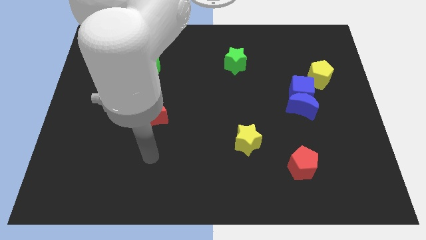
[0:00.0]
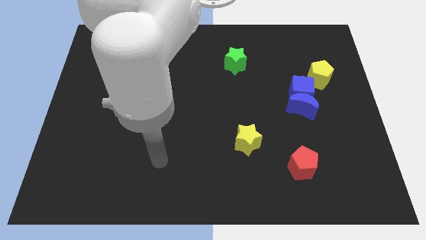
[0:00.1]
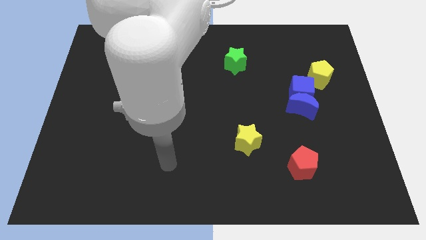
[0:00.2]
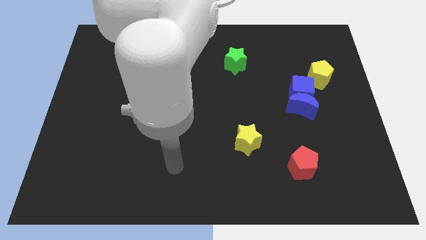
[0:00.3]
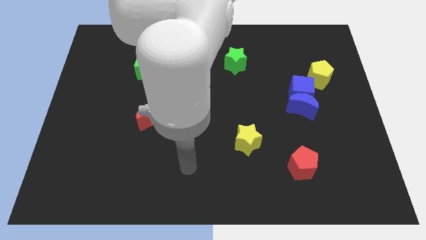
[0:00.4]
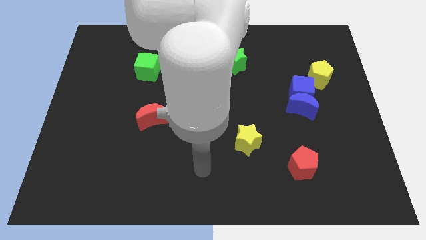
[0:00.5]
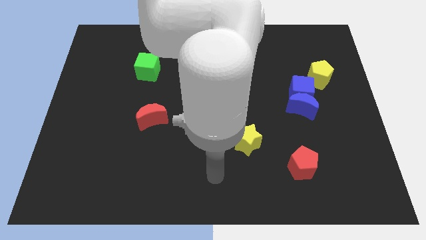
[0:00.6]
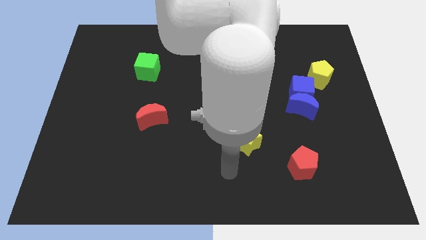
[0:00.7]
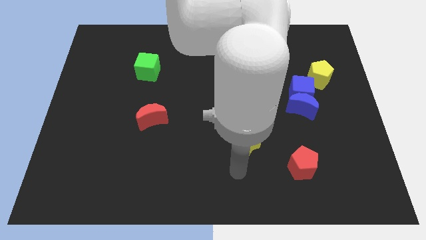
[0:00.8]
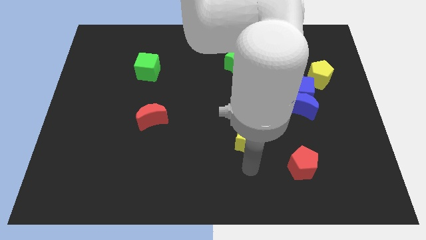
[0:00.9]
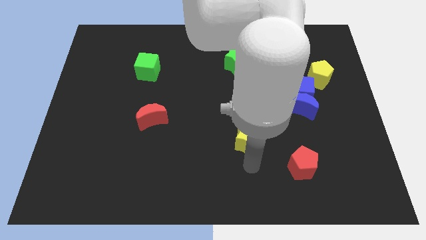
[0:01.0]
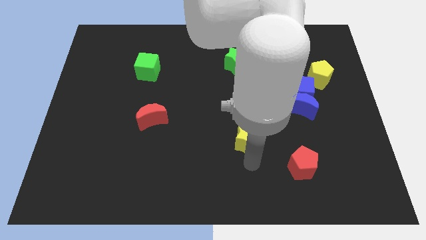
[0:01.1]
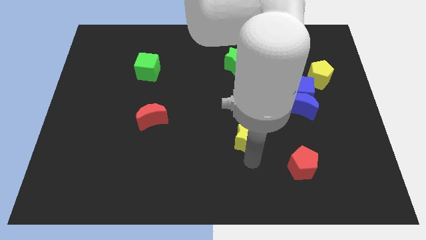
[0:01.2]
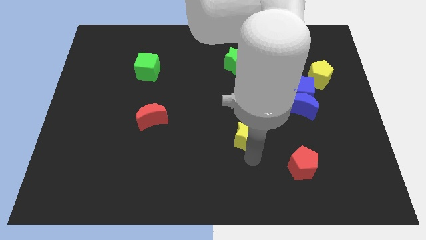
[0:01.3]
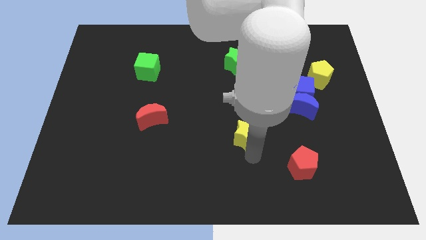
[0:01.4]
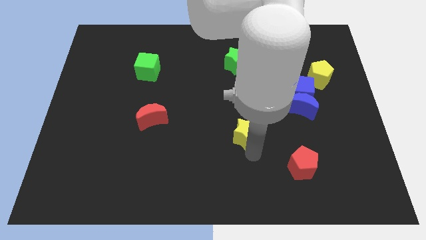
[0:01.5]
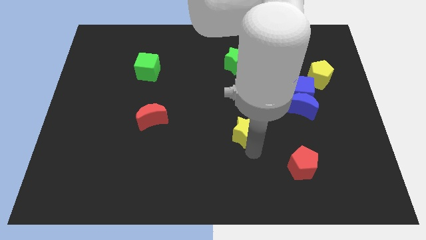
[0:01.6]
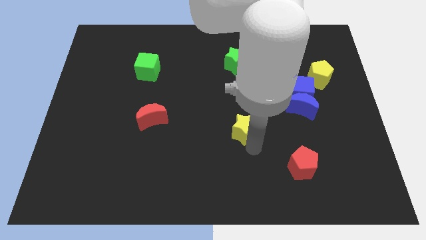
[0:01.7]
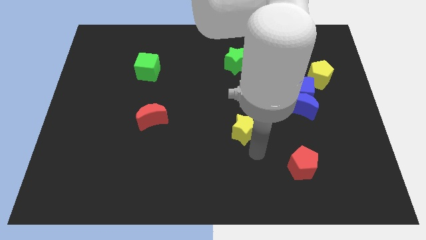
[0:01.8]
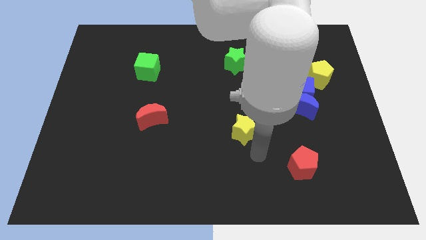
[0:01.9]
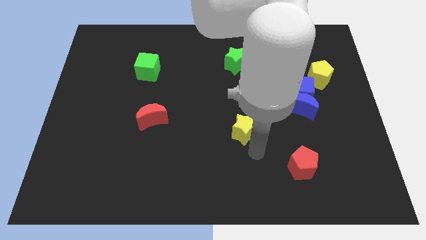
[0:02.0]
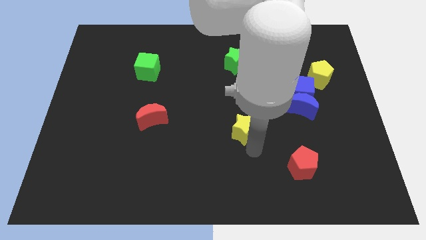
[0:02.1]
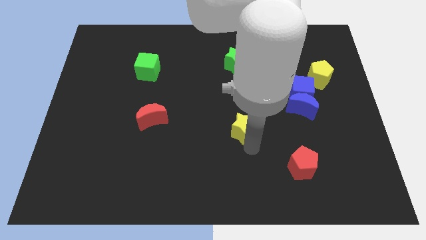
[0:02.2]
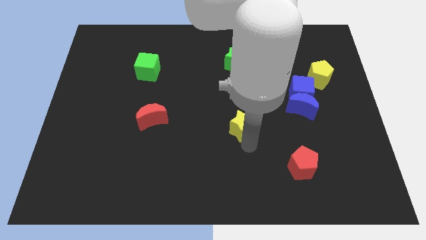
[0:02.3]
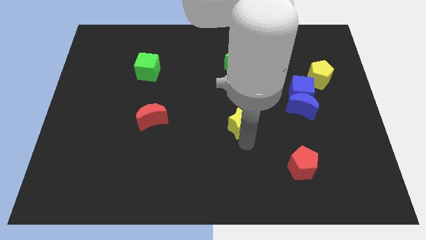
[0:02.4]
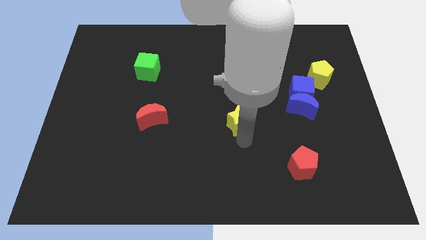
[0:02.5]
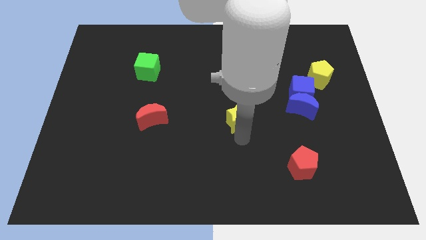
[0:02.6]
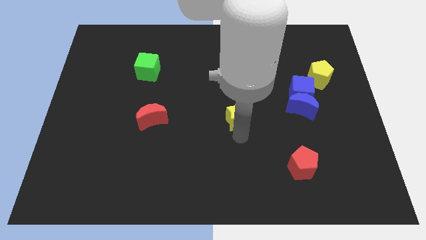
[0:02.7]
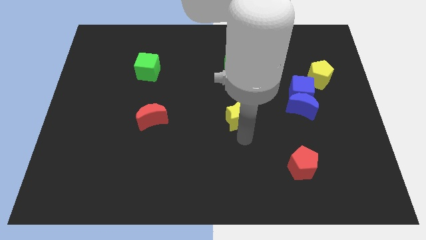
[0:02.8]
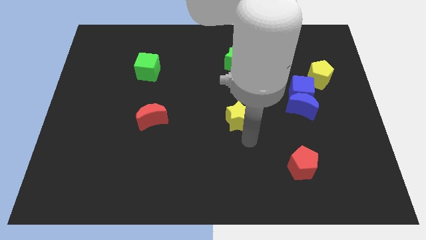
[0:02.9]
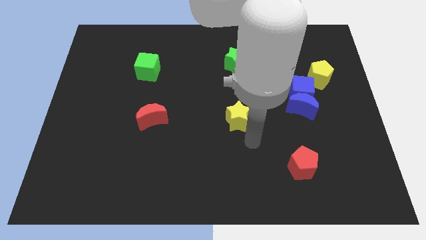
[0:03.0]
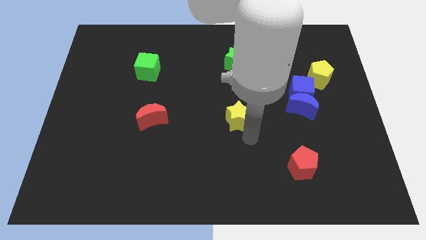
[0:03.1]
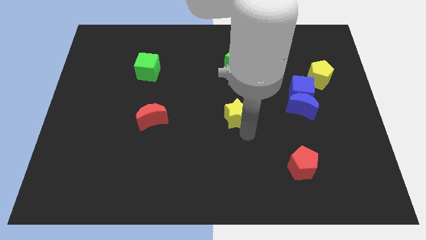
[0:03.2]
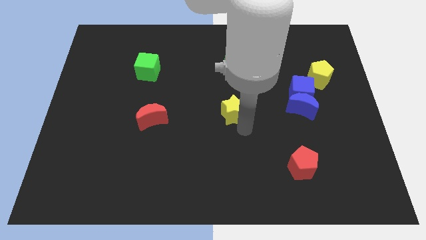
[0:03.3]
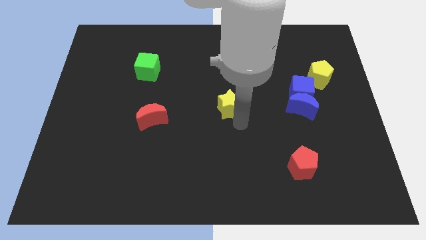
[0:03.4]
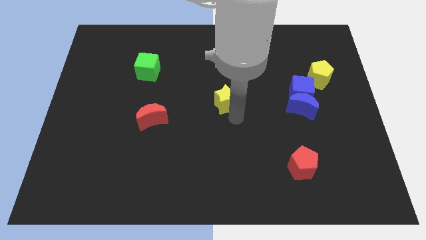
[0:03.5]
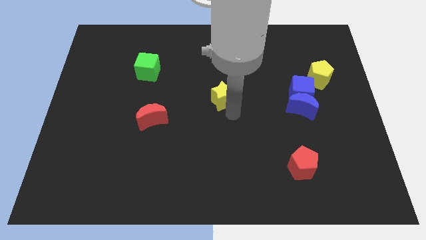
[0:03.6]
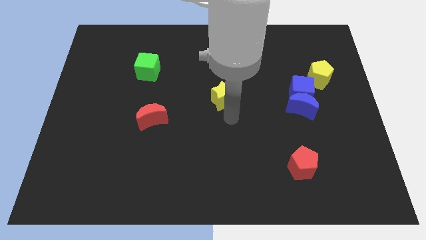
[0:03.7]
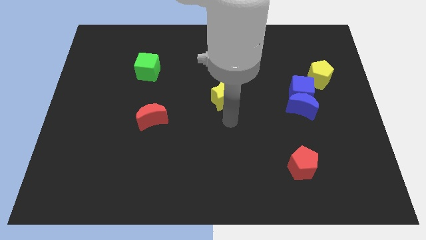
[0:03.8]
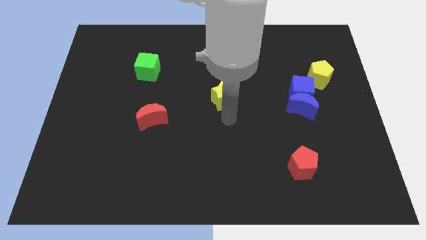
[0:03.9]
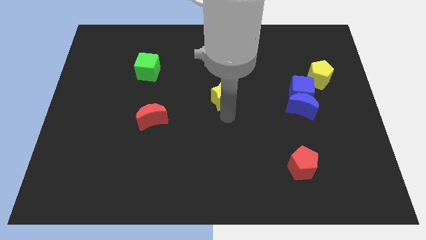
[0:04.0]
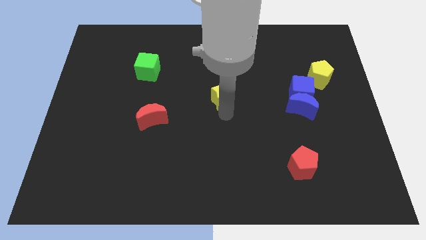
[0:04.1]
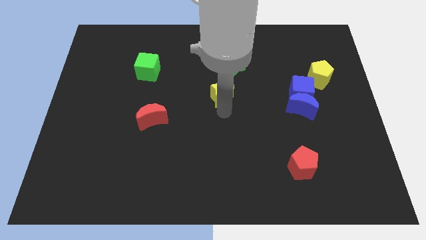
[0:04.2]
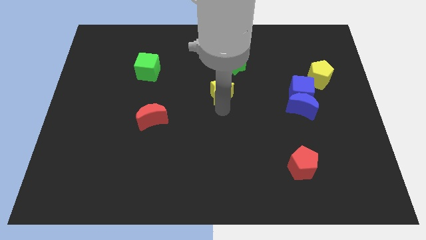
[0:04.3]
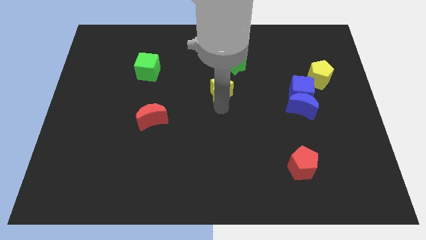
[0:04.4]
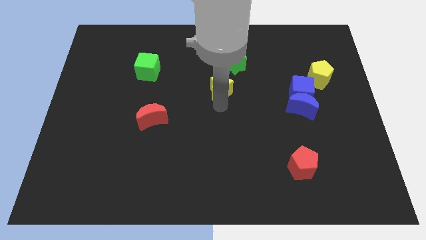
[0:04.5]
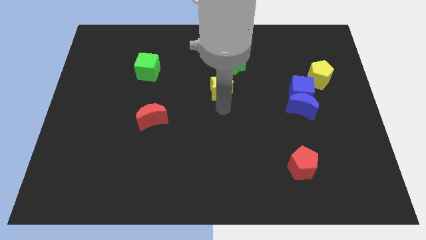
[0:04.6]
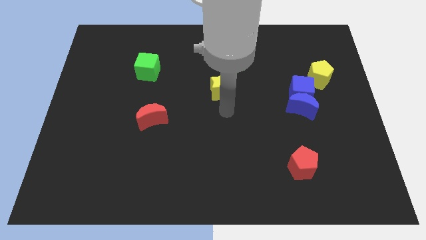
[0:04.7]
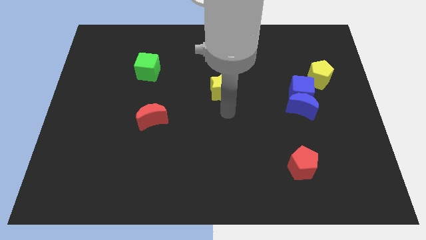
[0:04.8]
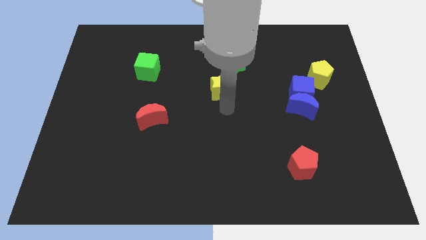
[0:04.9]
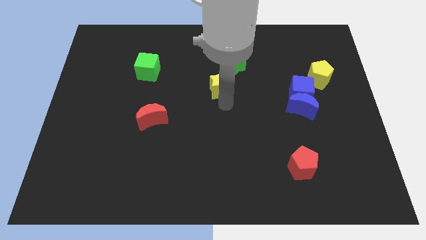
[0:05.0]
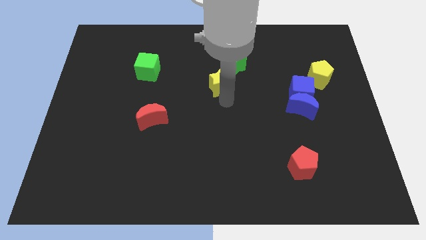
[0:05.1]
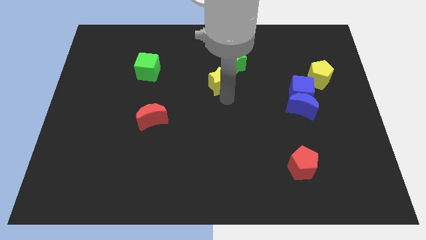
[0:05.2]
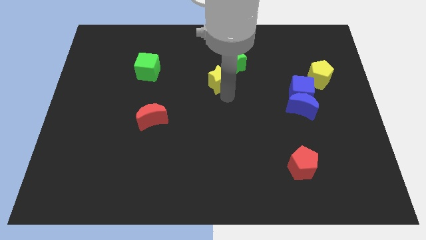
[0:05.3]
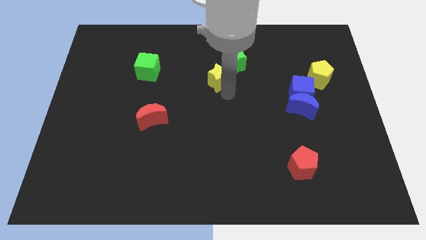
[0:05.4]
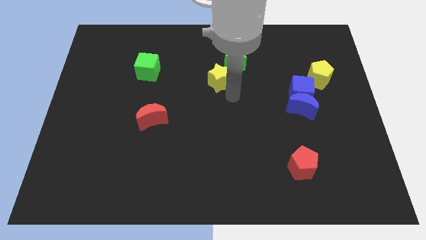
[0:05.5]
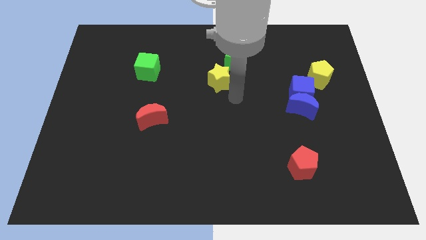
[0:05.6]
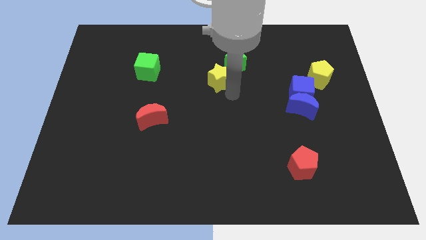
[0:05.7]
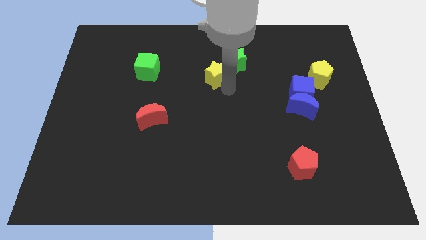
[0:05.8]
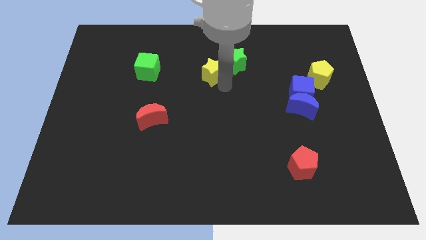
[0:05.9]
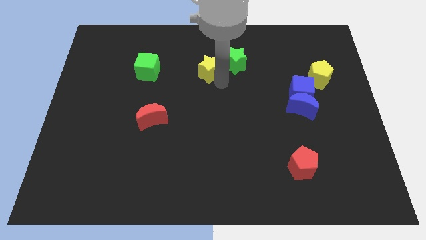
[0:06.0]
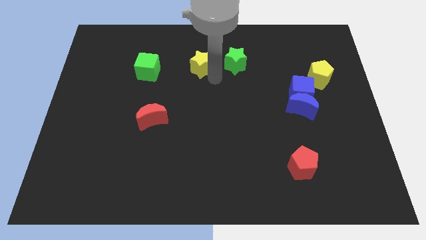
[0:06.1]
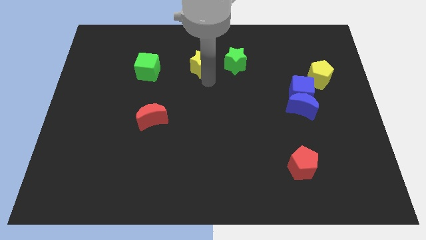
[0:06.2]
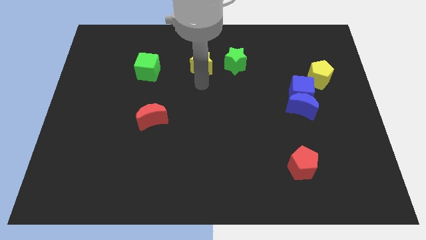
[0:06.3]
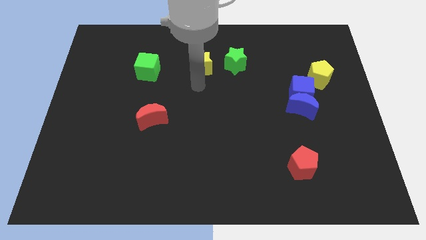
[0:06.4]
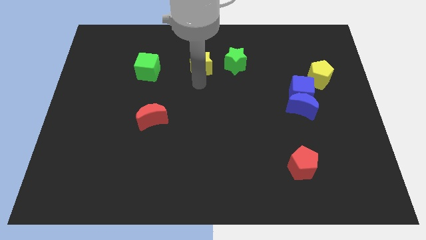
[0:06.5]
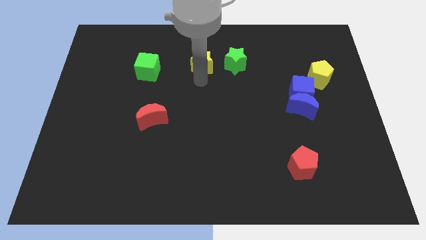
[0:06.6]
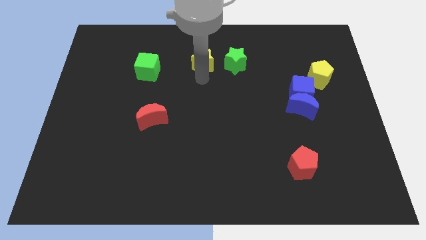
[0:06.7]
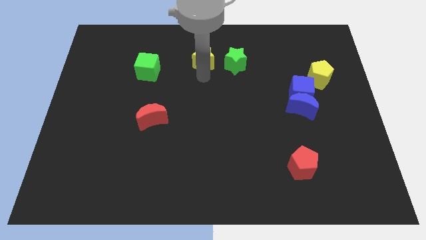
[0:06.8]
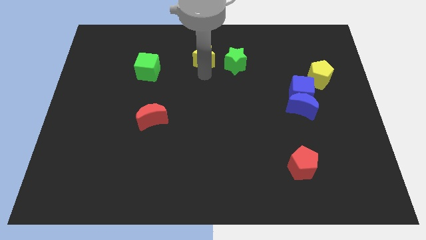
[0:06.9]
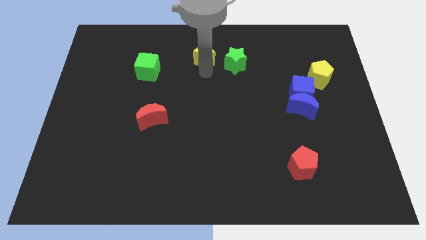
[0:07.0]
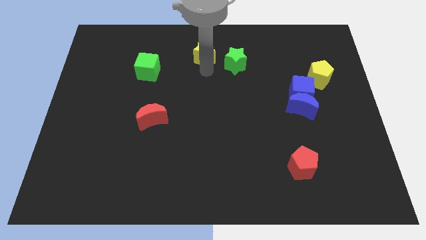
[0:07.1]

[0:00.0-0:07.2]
move the yellow star to the towards your base

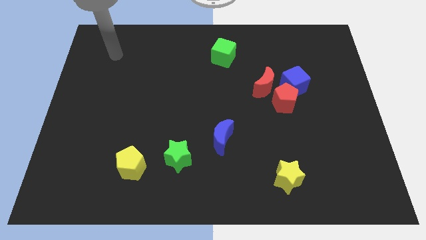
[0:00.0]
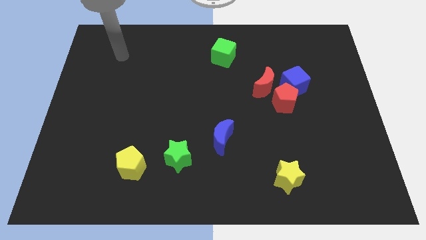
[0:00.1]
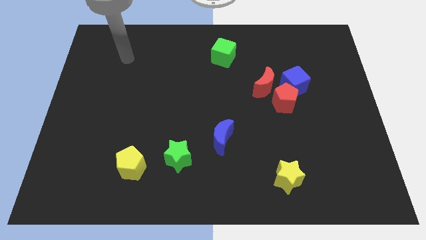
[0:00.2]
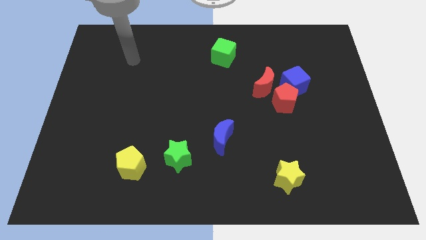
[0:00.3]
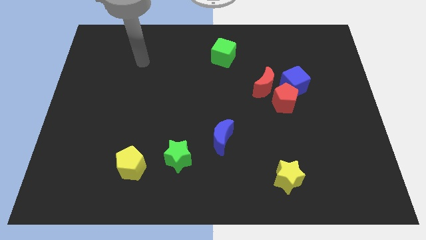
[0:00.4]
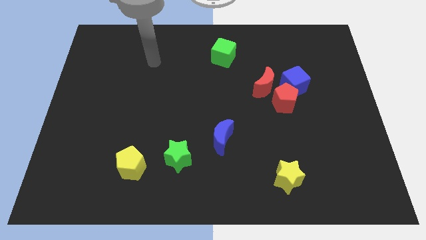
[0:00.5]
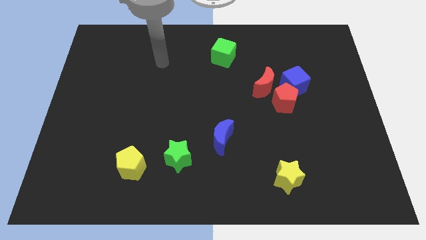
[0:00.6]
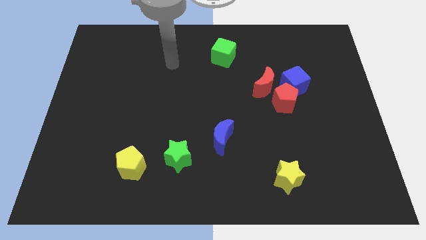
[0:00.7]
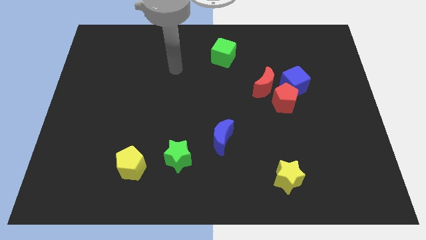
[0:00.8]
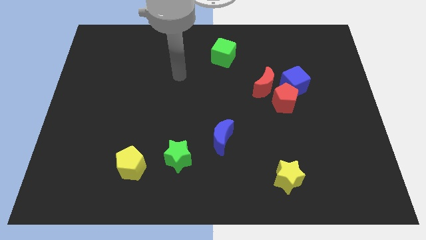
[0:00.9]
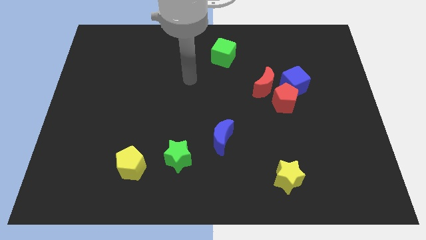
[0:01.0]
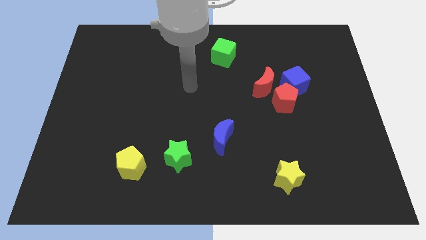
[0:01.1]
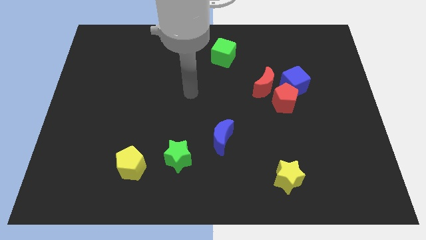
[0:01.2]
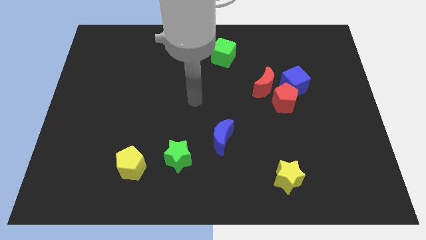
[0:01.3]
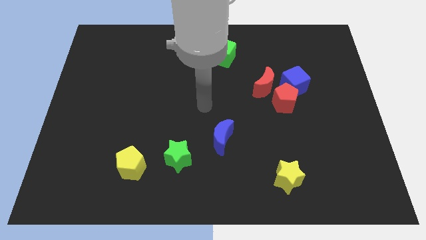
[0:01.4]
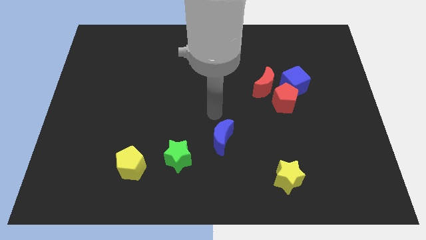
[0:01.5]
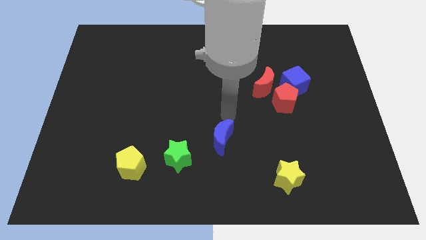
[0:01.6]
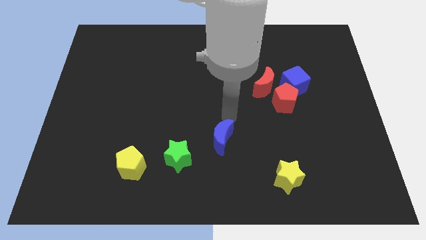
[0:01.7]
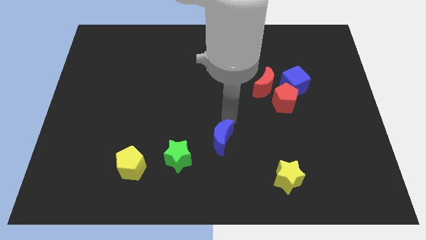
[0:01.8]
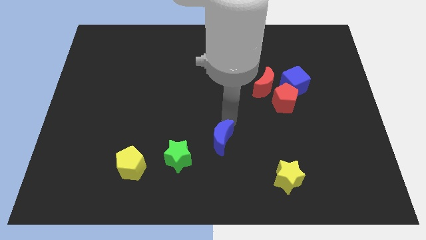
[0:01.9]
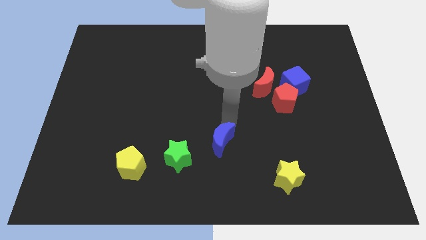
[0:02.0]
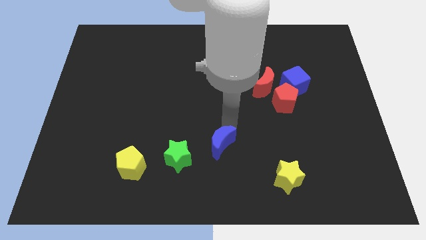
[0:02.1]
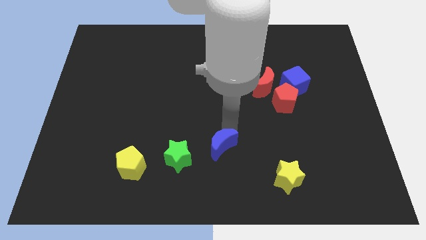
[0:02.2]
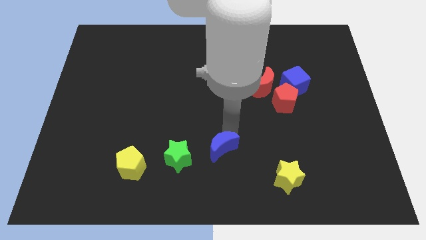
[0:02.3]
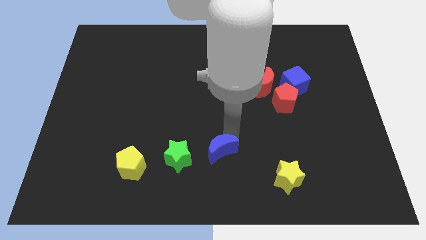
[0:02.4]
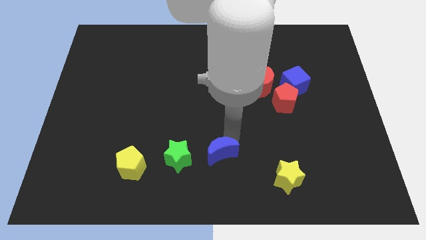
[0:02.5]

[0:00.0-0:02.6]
push the blue moon to the bottom side
